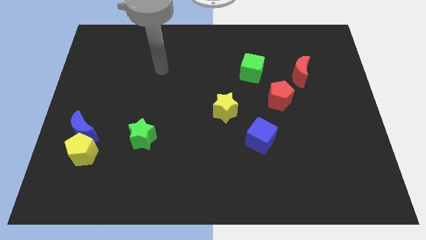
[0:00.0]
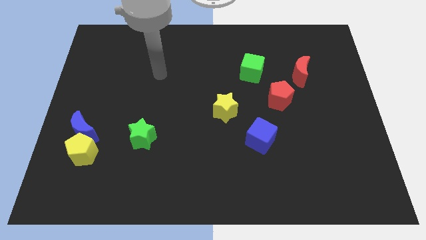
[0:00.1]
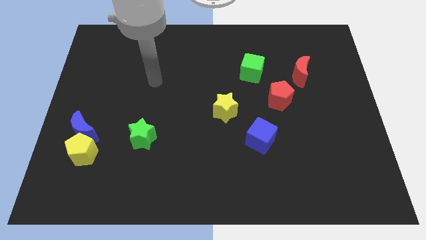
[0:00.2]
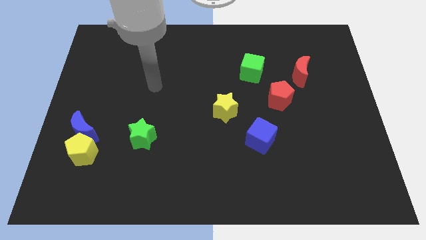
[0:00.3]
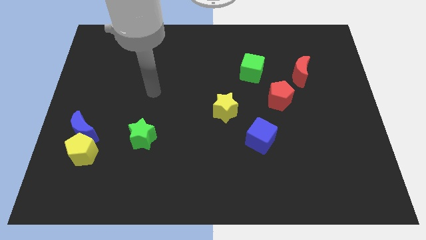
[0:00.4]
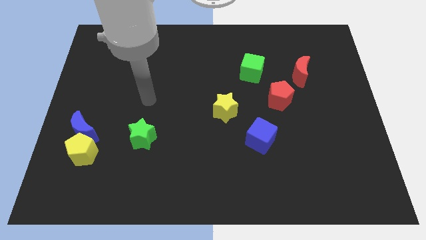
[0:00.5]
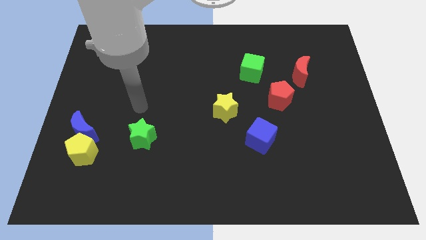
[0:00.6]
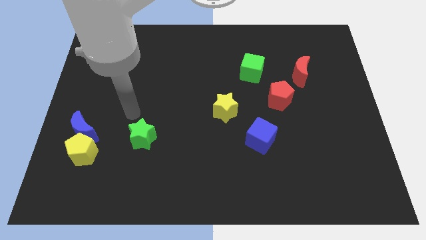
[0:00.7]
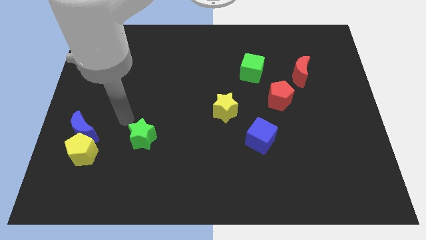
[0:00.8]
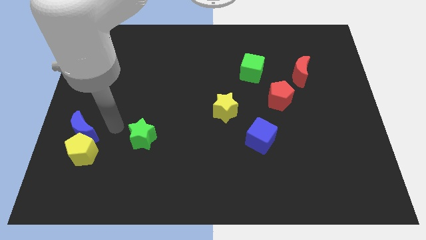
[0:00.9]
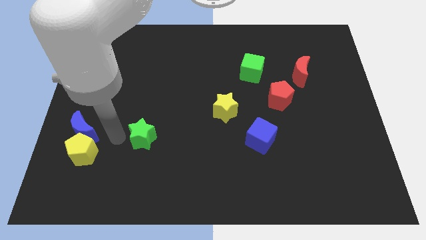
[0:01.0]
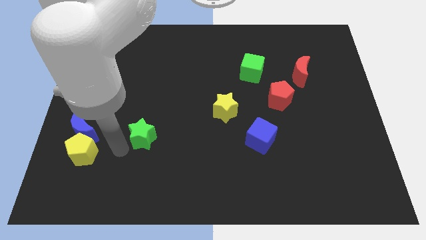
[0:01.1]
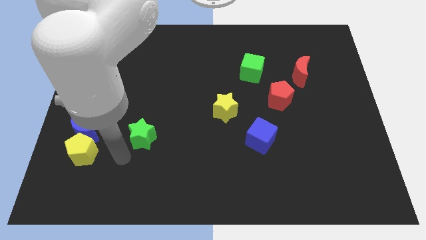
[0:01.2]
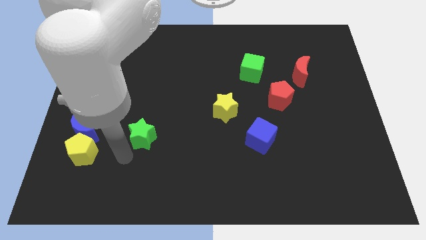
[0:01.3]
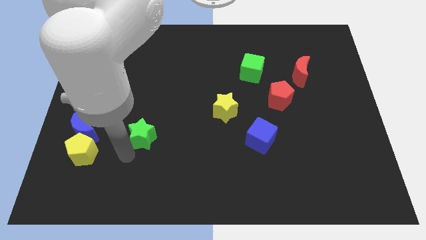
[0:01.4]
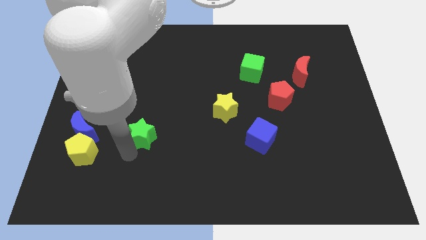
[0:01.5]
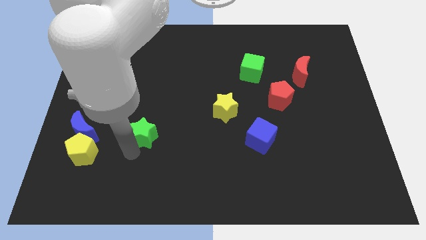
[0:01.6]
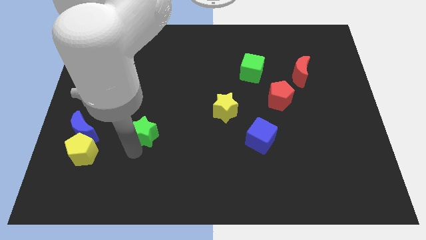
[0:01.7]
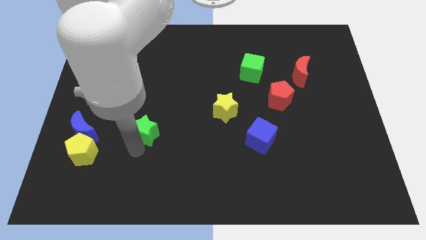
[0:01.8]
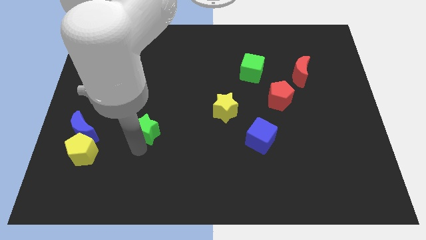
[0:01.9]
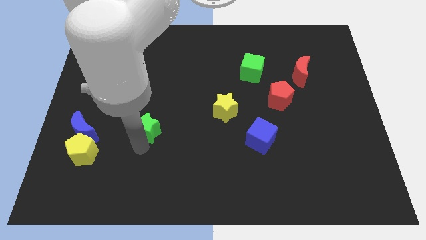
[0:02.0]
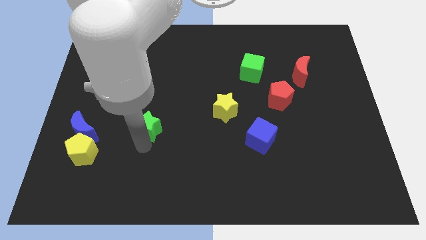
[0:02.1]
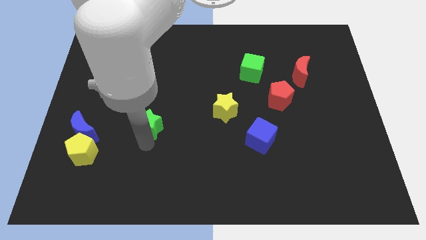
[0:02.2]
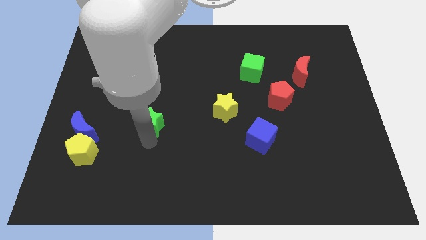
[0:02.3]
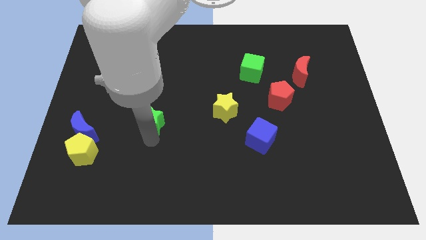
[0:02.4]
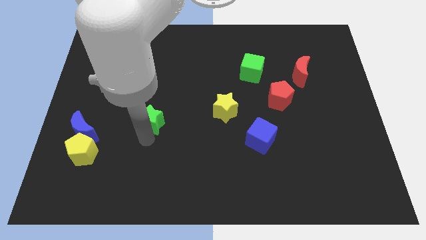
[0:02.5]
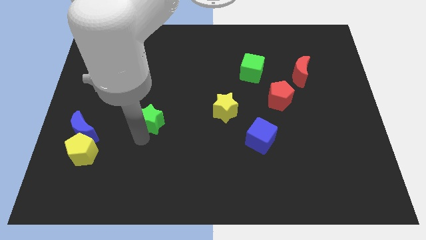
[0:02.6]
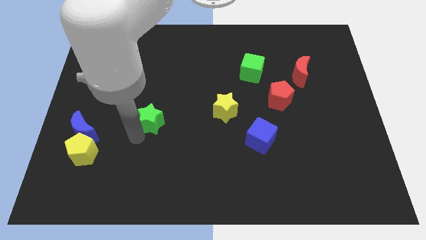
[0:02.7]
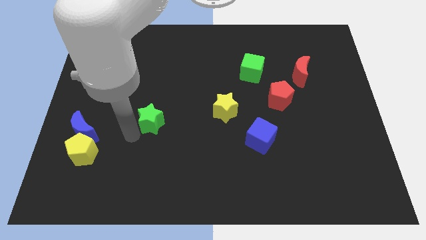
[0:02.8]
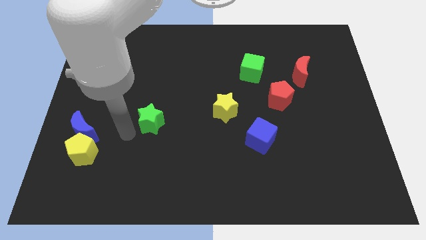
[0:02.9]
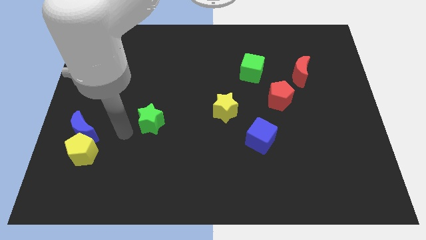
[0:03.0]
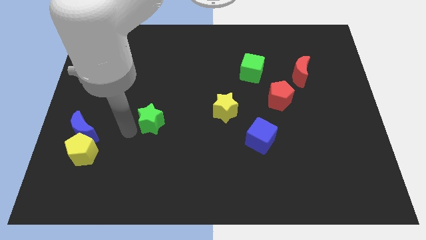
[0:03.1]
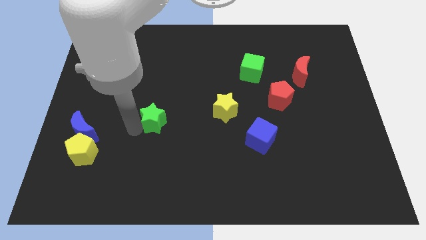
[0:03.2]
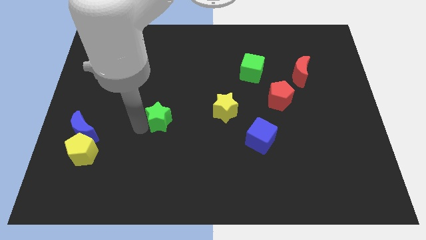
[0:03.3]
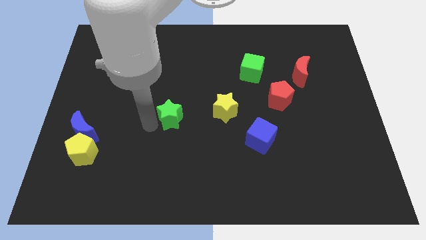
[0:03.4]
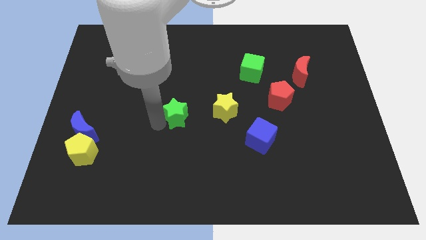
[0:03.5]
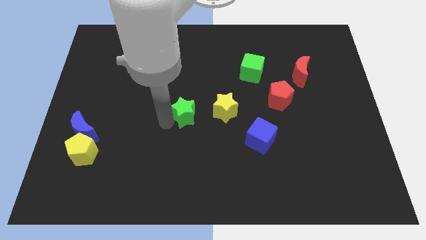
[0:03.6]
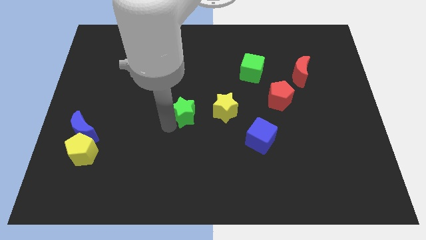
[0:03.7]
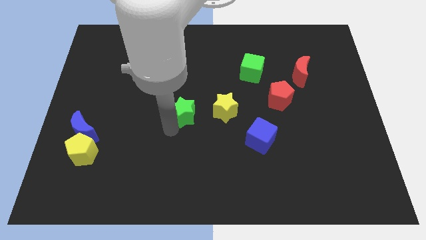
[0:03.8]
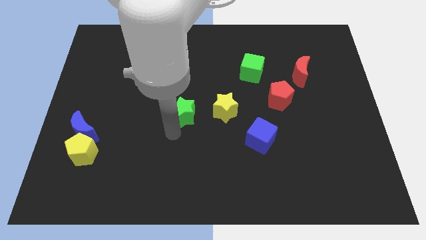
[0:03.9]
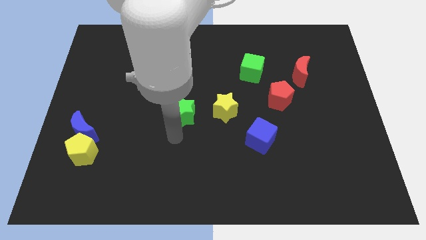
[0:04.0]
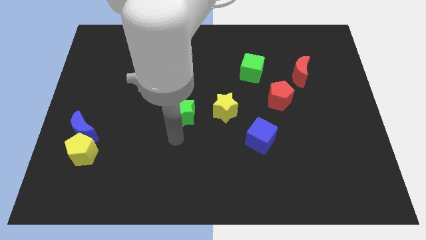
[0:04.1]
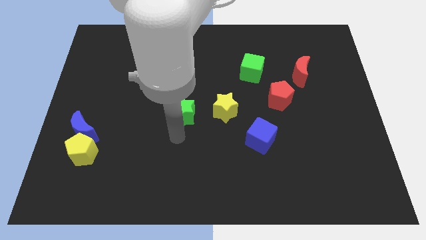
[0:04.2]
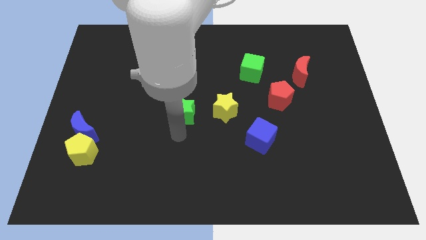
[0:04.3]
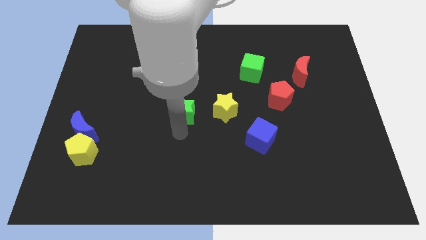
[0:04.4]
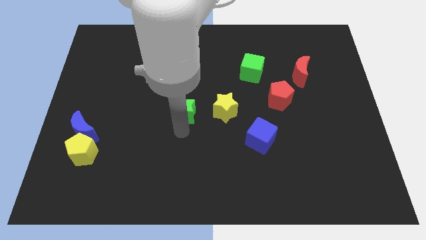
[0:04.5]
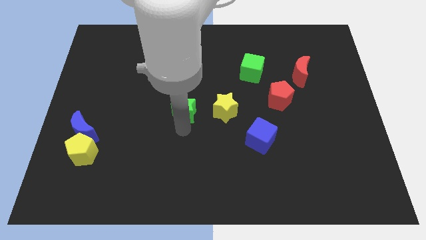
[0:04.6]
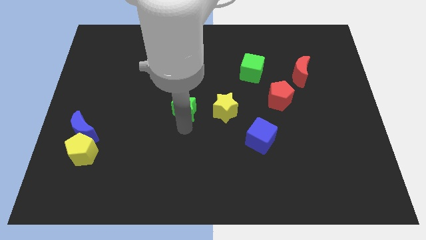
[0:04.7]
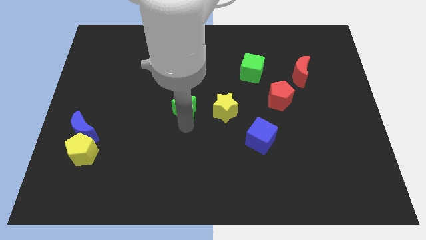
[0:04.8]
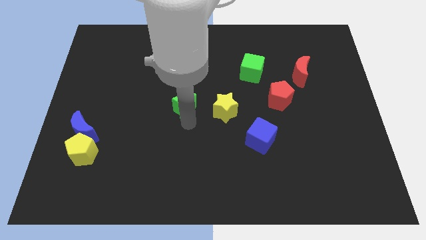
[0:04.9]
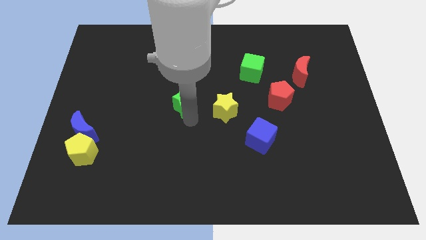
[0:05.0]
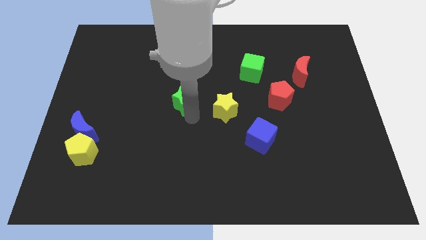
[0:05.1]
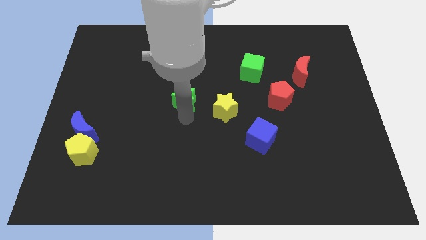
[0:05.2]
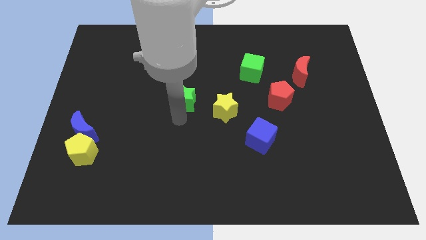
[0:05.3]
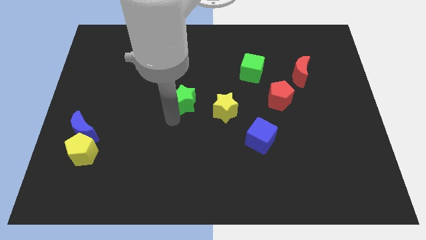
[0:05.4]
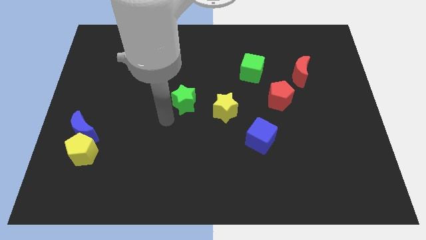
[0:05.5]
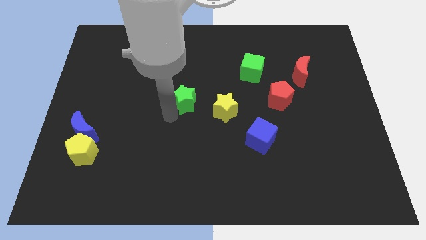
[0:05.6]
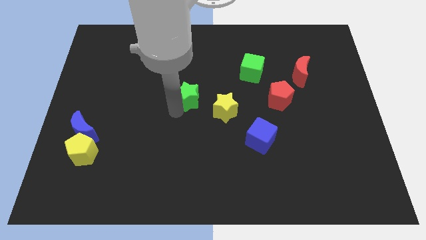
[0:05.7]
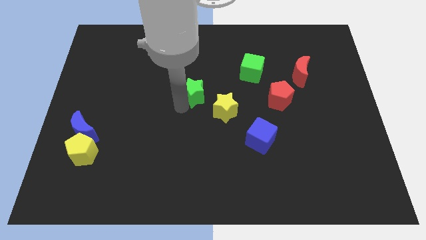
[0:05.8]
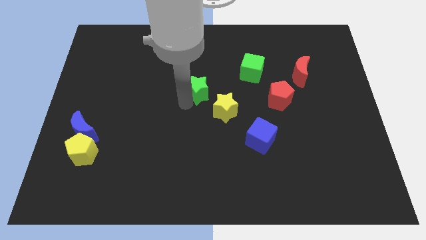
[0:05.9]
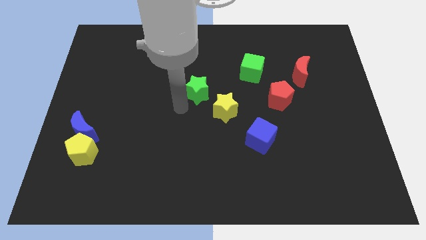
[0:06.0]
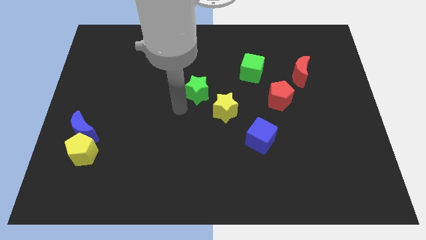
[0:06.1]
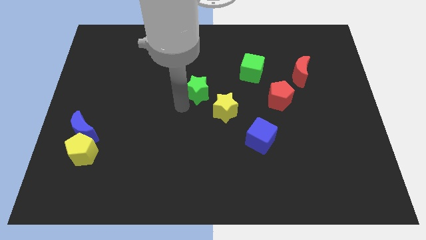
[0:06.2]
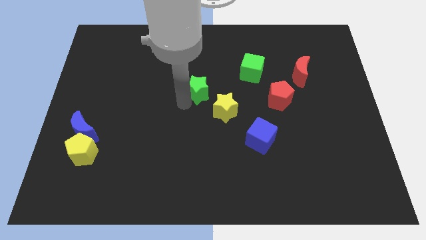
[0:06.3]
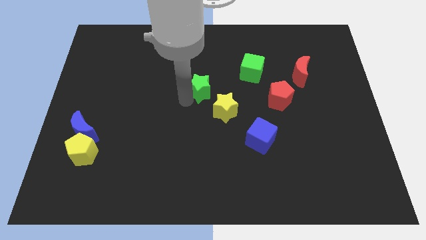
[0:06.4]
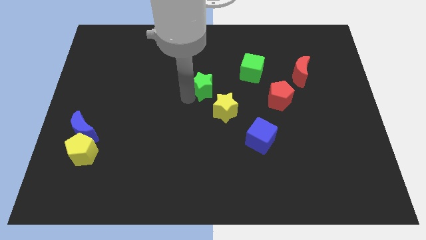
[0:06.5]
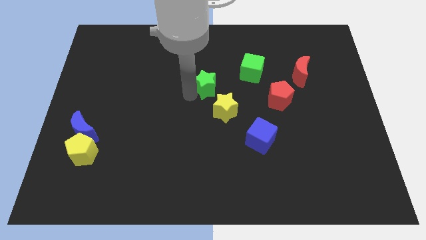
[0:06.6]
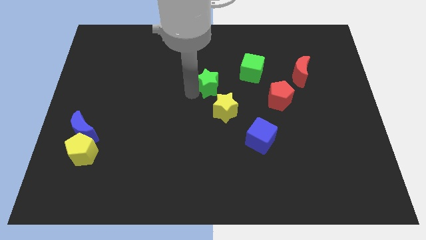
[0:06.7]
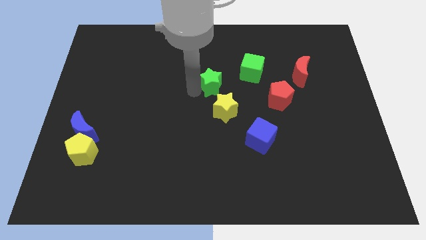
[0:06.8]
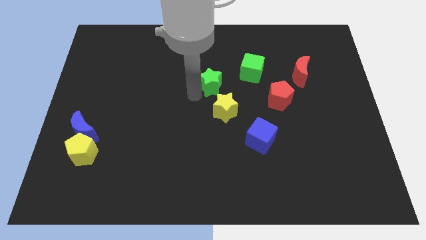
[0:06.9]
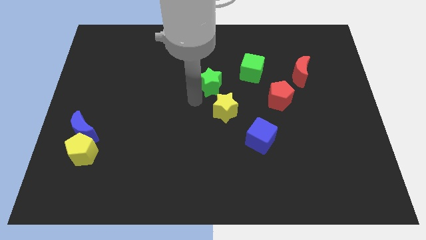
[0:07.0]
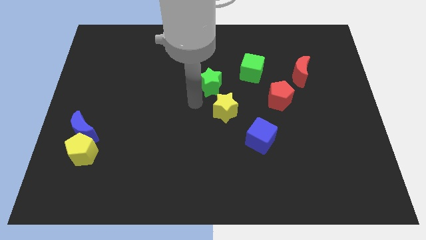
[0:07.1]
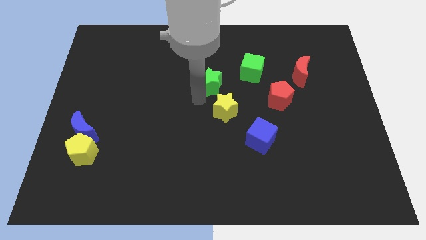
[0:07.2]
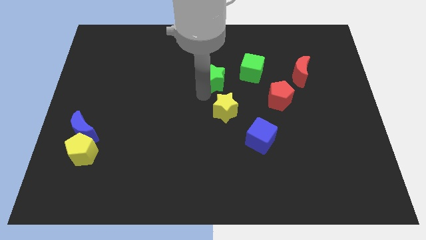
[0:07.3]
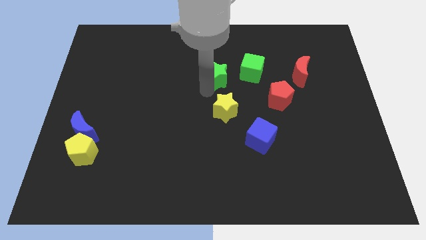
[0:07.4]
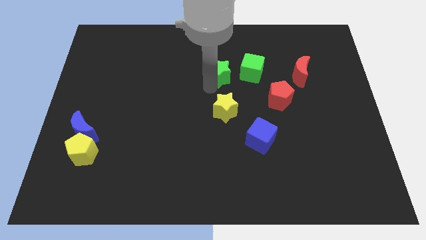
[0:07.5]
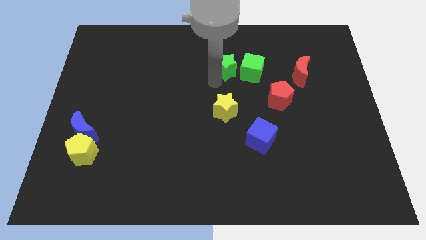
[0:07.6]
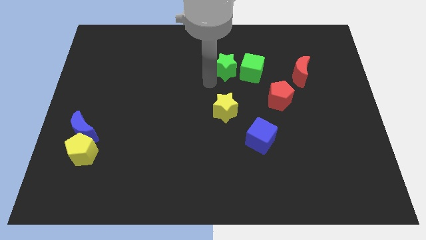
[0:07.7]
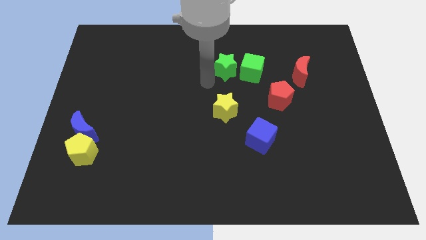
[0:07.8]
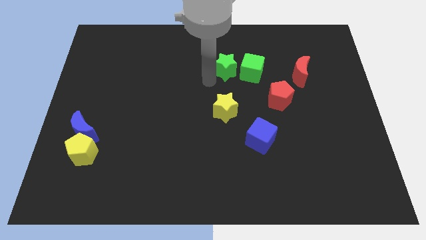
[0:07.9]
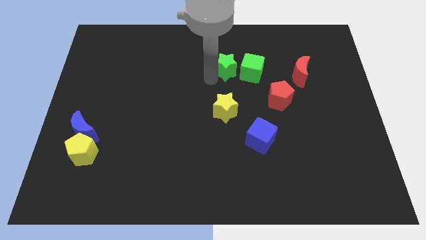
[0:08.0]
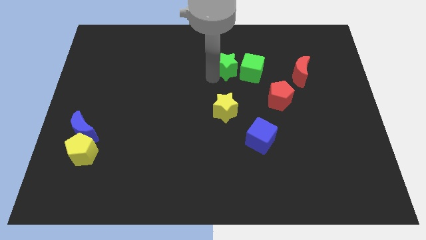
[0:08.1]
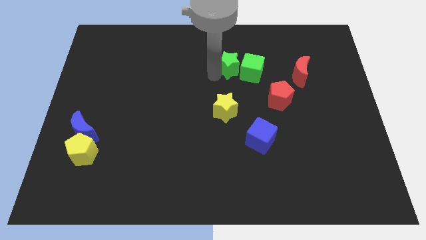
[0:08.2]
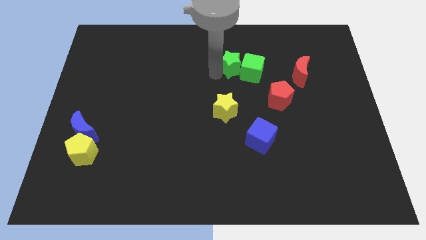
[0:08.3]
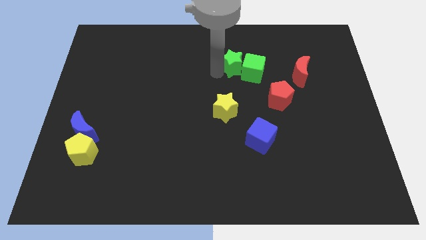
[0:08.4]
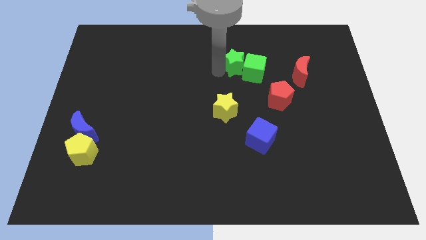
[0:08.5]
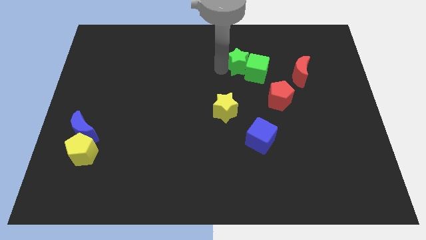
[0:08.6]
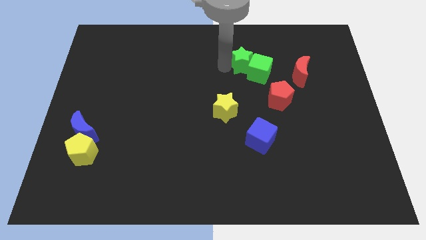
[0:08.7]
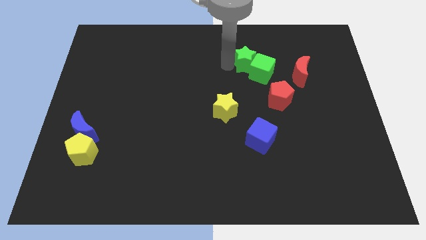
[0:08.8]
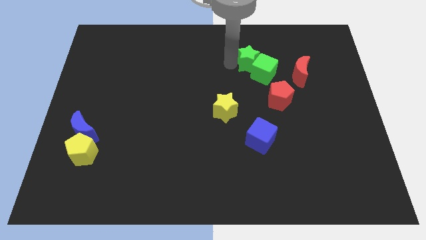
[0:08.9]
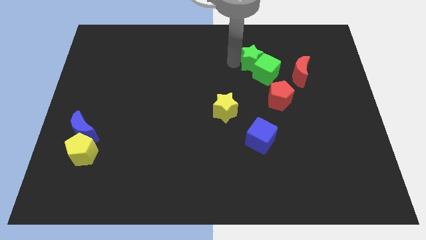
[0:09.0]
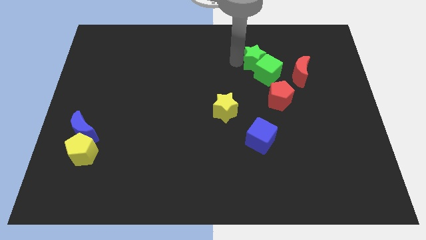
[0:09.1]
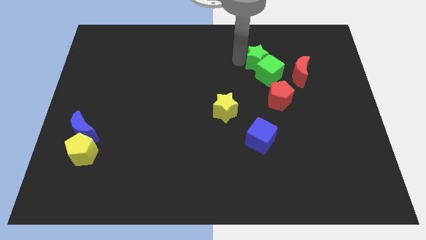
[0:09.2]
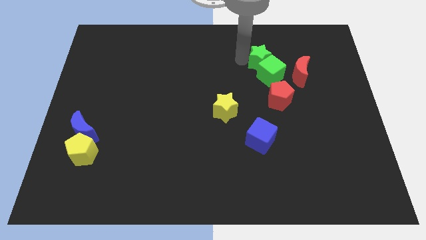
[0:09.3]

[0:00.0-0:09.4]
push the green star to the top left side of the red moon
